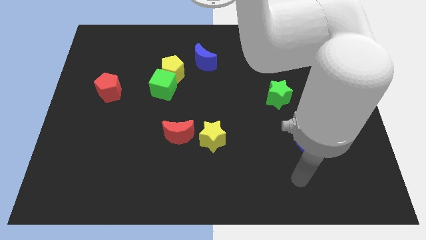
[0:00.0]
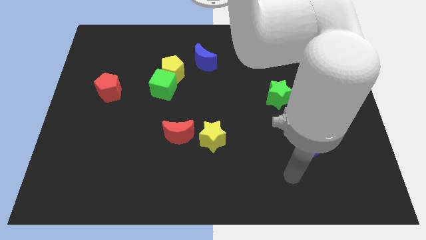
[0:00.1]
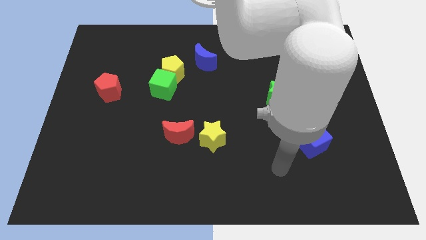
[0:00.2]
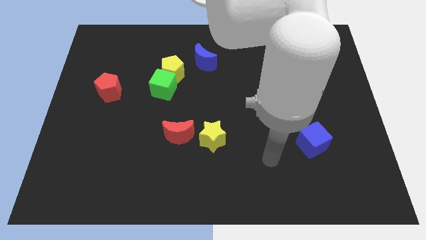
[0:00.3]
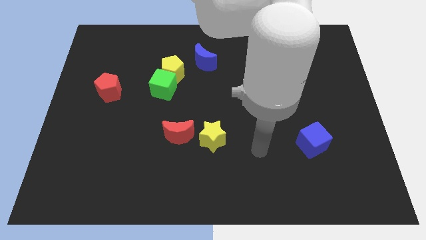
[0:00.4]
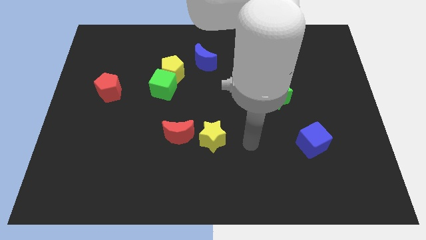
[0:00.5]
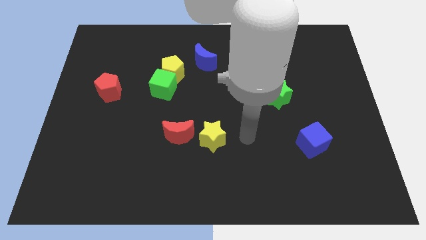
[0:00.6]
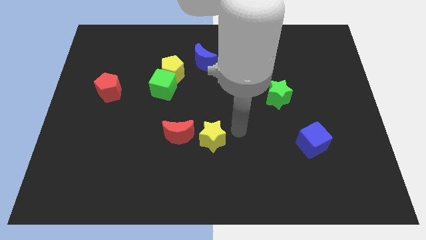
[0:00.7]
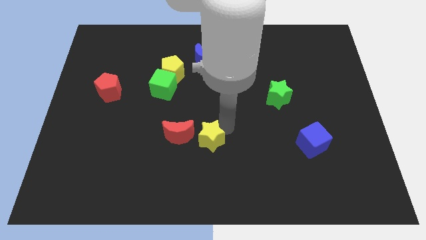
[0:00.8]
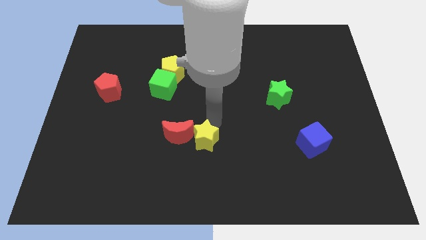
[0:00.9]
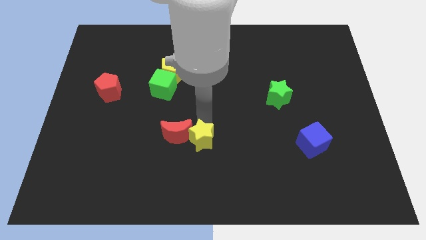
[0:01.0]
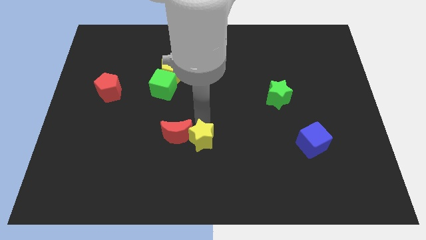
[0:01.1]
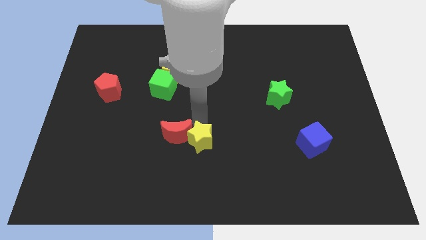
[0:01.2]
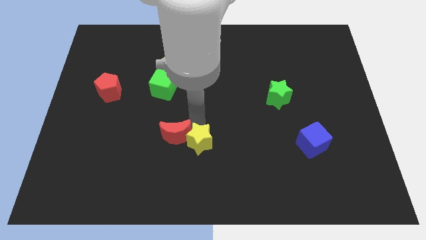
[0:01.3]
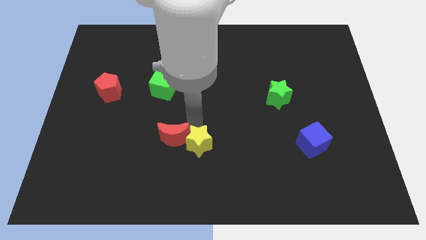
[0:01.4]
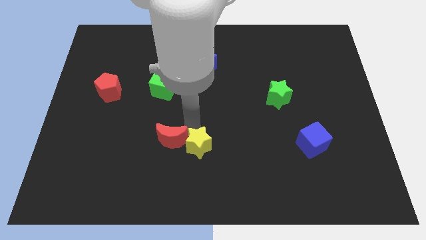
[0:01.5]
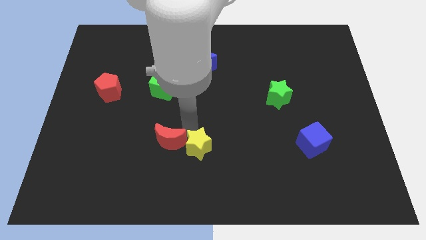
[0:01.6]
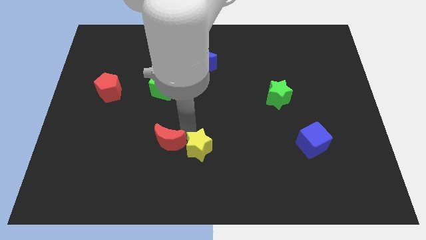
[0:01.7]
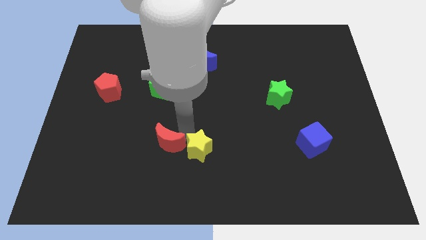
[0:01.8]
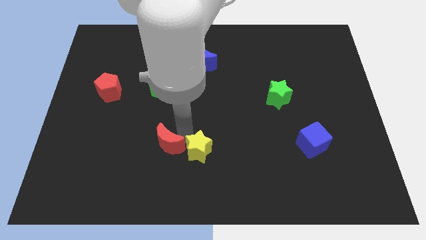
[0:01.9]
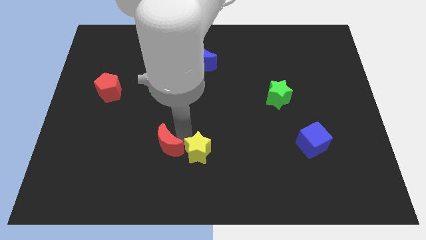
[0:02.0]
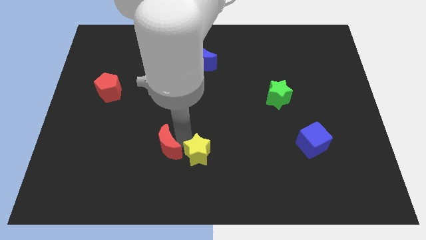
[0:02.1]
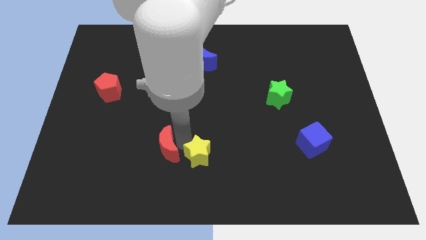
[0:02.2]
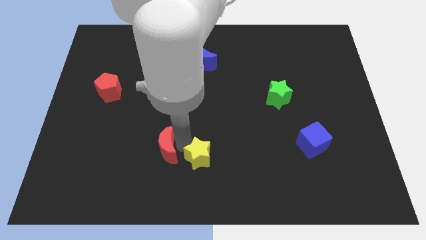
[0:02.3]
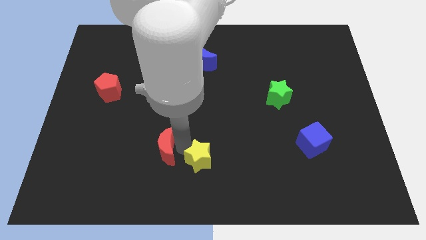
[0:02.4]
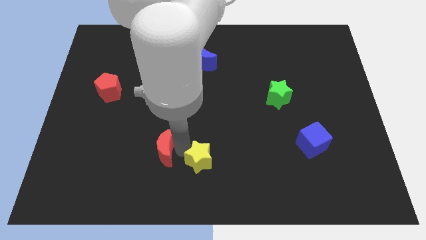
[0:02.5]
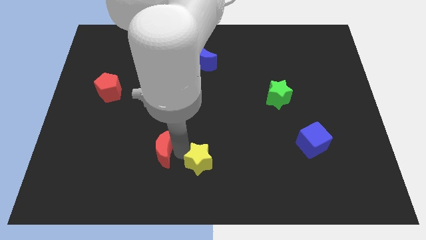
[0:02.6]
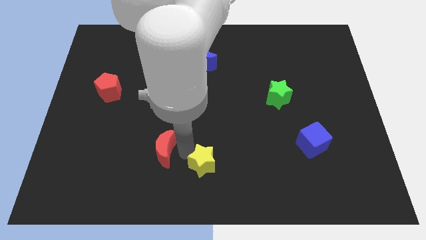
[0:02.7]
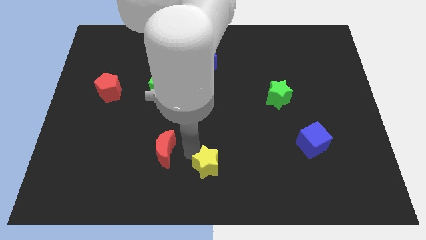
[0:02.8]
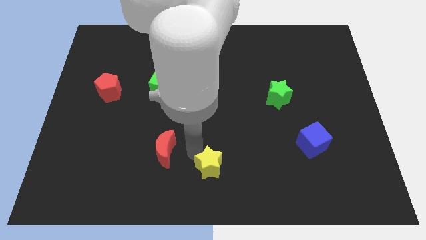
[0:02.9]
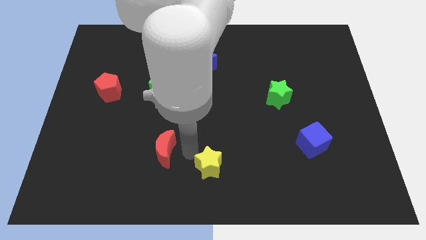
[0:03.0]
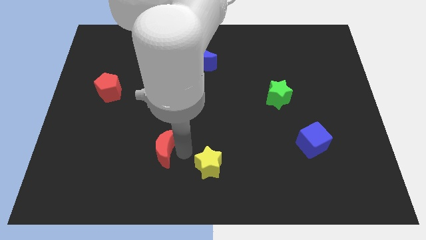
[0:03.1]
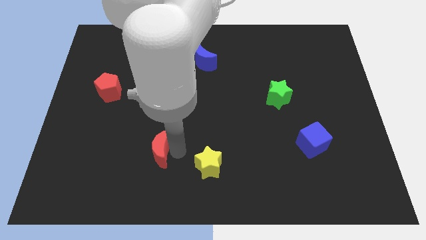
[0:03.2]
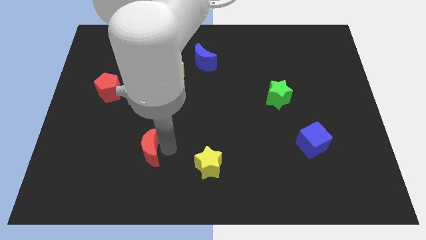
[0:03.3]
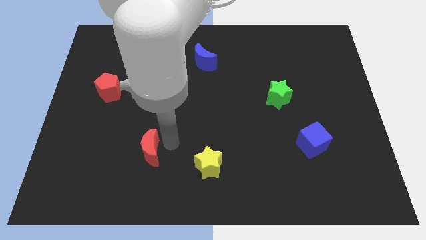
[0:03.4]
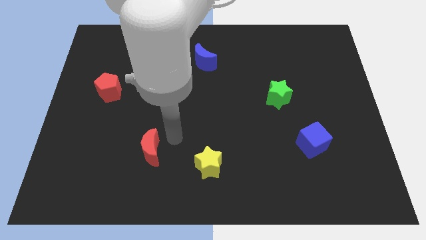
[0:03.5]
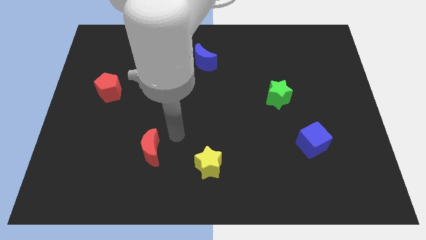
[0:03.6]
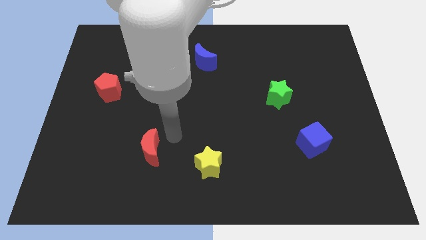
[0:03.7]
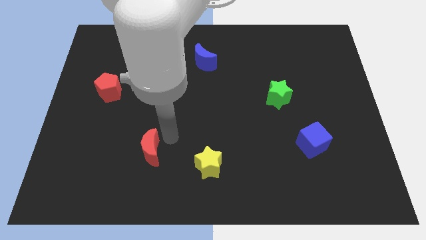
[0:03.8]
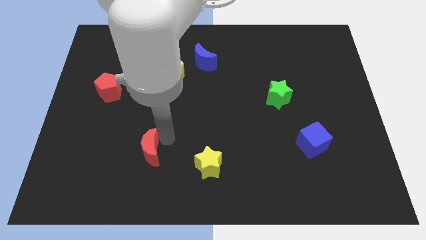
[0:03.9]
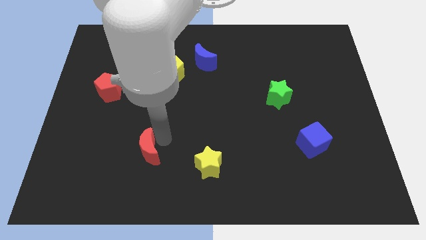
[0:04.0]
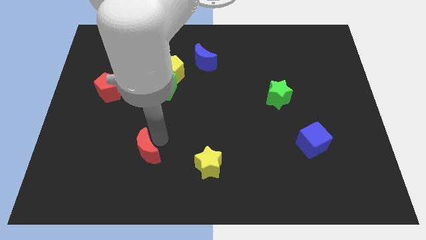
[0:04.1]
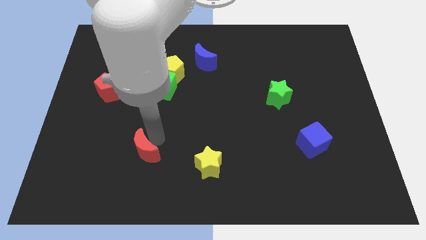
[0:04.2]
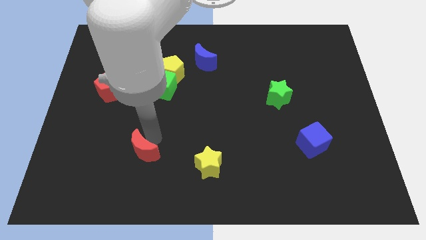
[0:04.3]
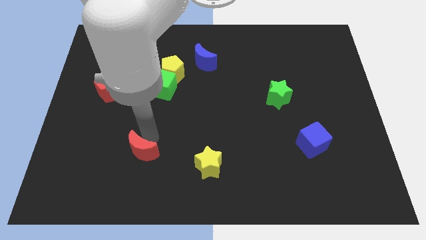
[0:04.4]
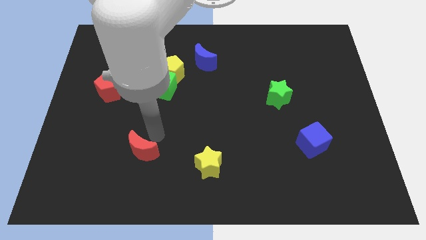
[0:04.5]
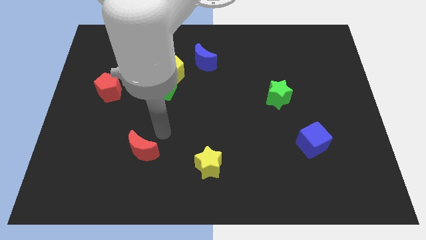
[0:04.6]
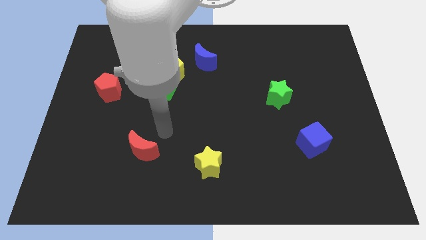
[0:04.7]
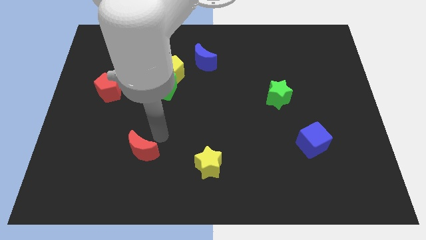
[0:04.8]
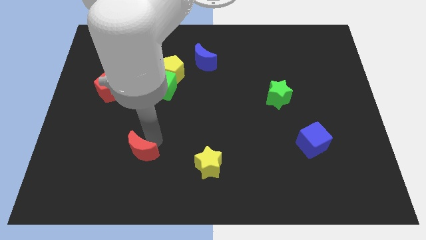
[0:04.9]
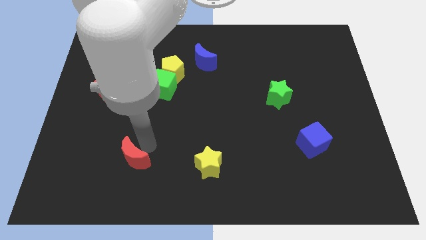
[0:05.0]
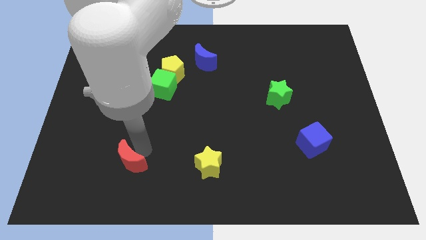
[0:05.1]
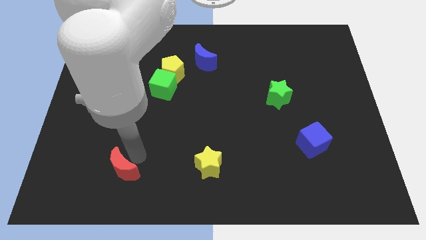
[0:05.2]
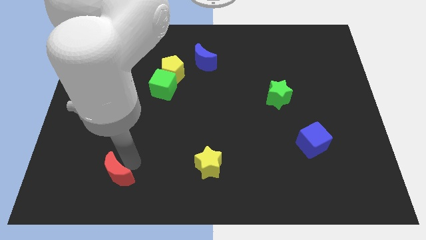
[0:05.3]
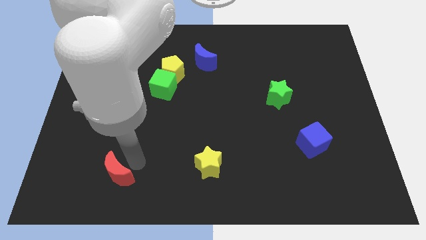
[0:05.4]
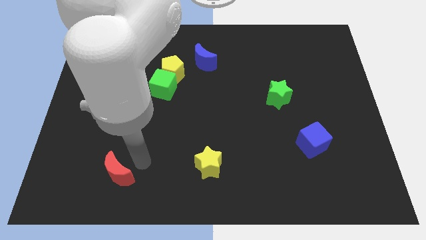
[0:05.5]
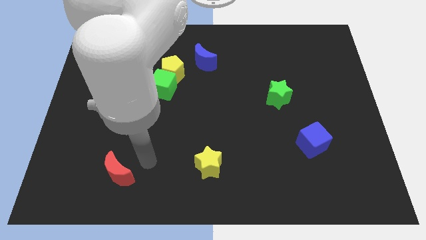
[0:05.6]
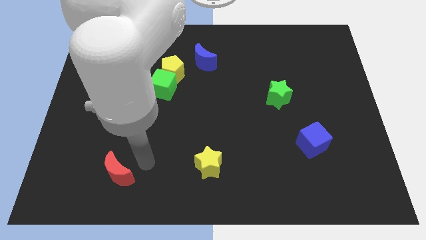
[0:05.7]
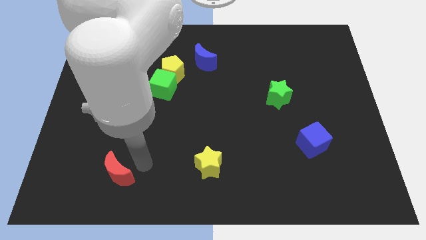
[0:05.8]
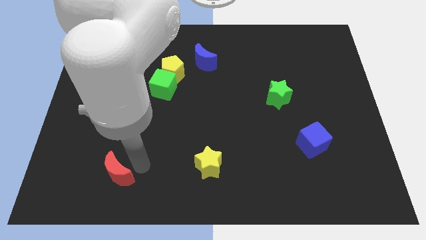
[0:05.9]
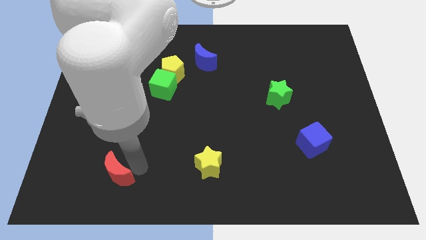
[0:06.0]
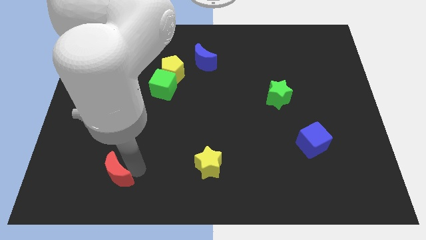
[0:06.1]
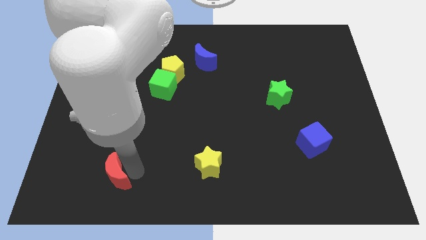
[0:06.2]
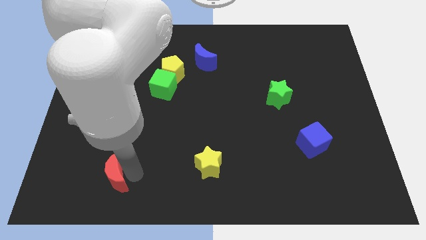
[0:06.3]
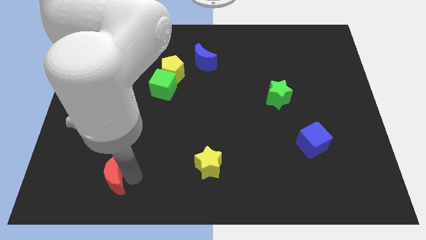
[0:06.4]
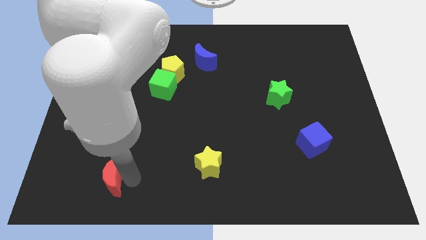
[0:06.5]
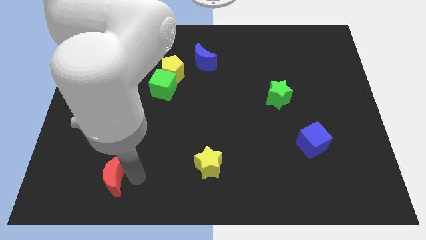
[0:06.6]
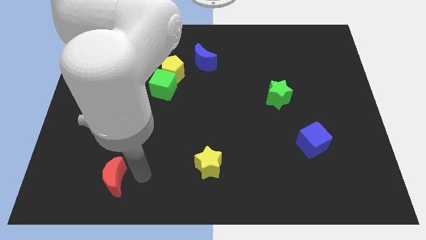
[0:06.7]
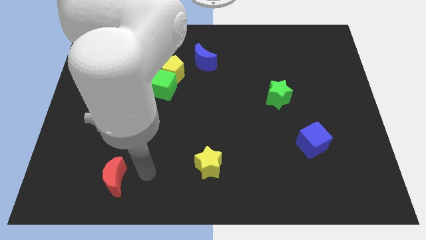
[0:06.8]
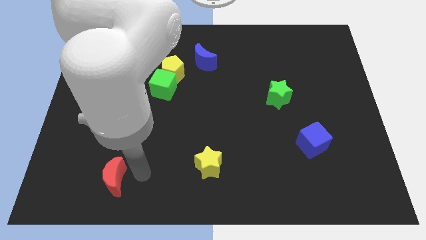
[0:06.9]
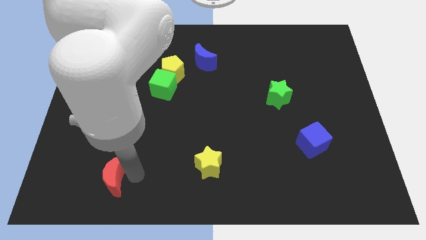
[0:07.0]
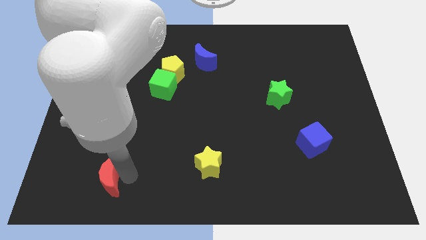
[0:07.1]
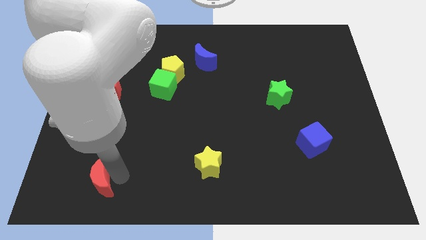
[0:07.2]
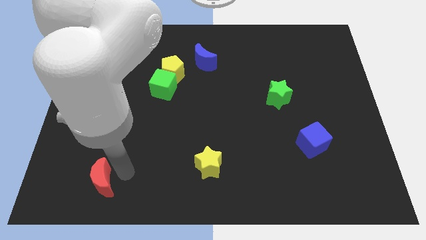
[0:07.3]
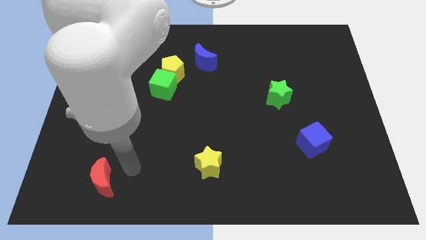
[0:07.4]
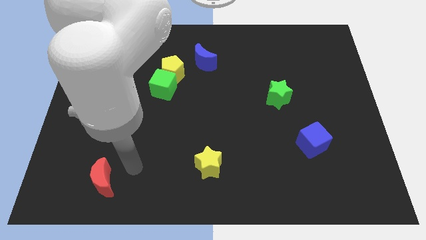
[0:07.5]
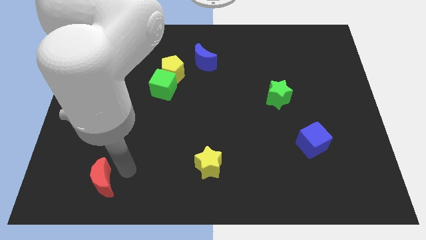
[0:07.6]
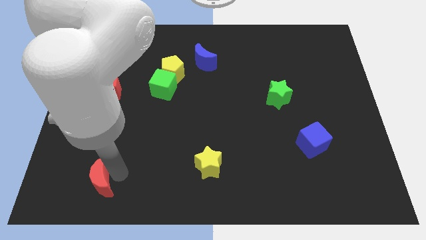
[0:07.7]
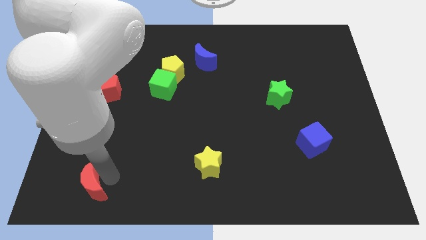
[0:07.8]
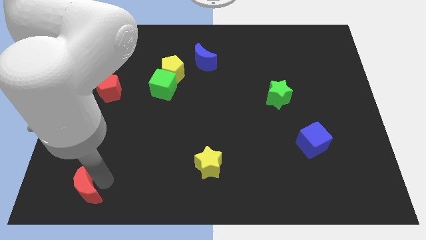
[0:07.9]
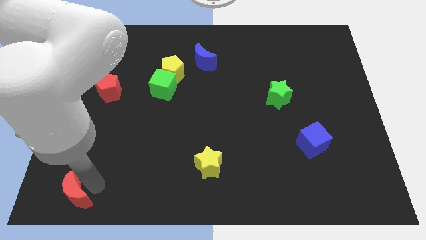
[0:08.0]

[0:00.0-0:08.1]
put the red moon to the lower left corner
